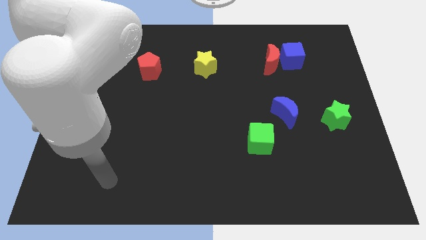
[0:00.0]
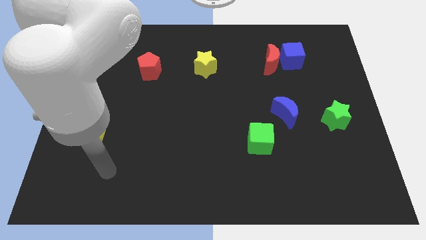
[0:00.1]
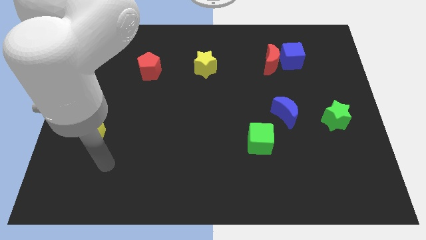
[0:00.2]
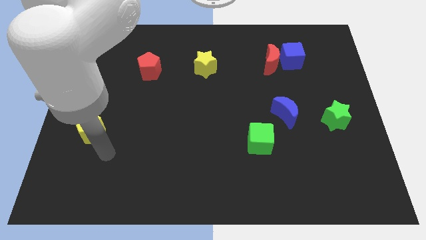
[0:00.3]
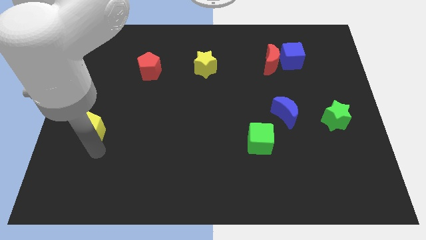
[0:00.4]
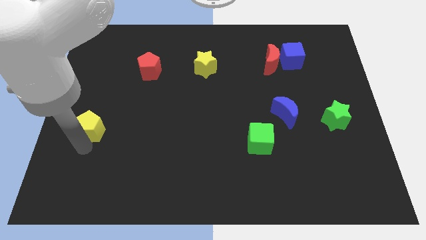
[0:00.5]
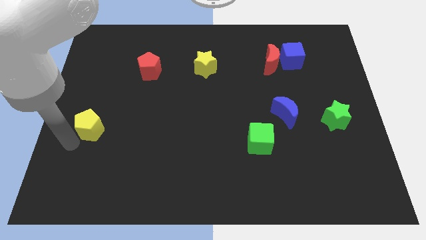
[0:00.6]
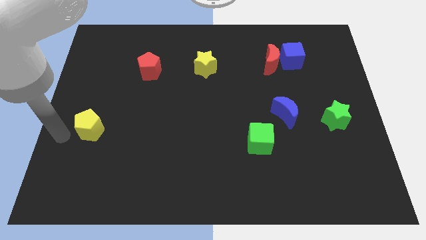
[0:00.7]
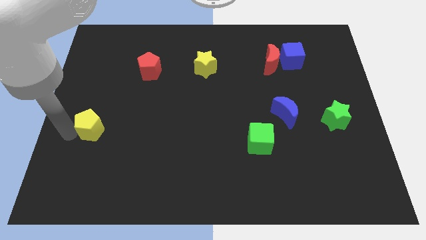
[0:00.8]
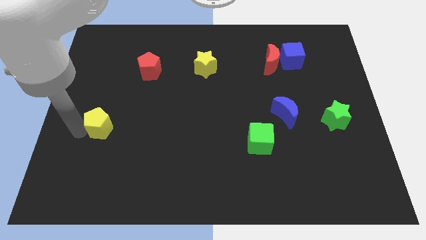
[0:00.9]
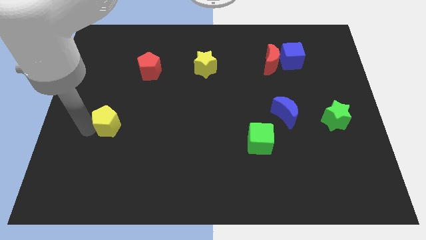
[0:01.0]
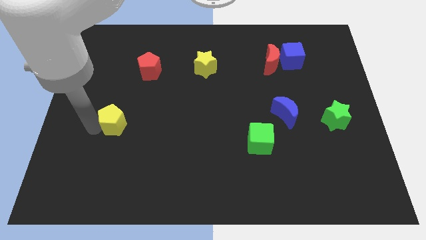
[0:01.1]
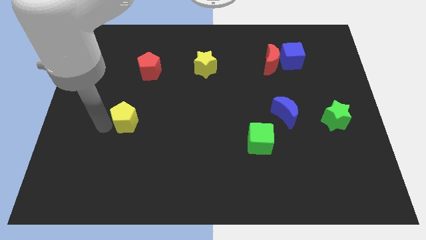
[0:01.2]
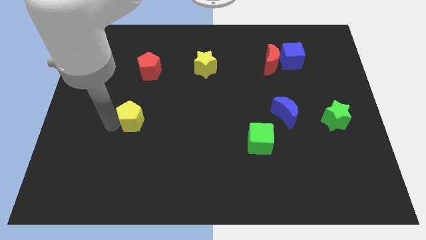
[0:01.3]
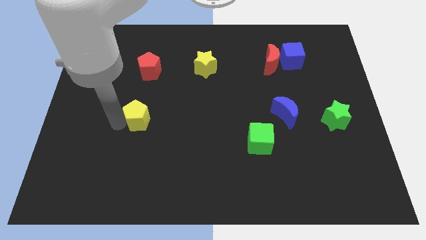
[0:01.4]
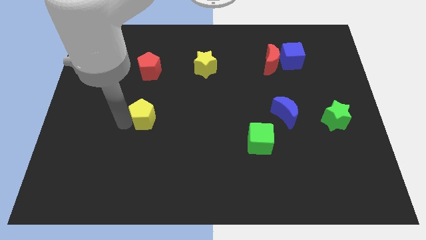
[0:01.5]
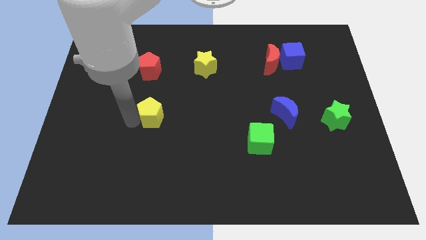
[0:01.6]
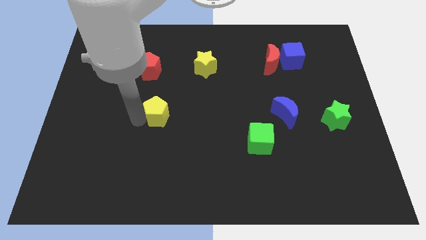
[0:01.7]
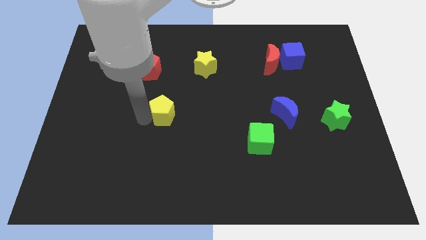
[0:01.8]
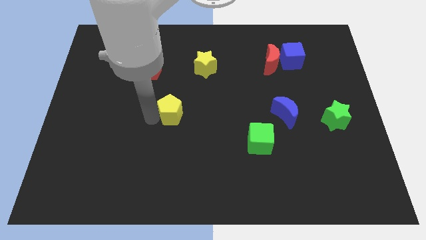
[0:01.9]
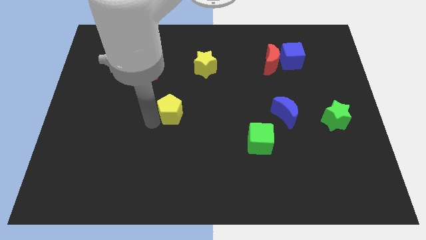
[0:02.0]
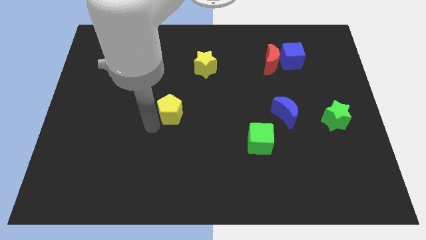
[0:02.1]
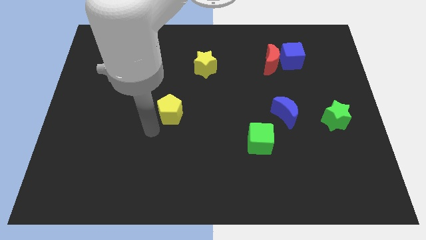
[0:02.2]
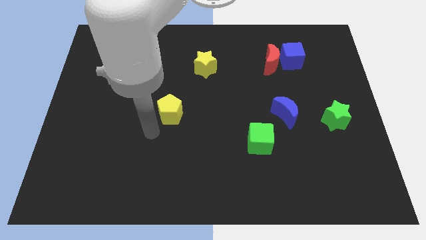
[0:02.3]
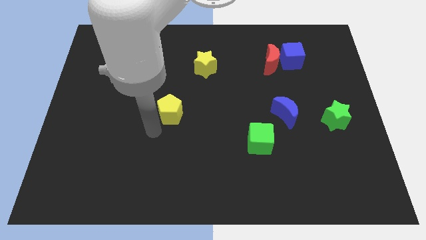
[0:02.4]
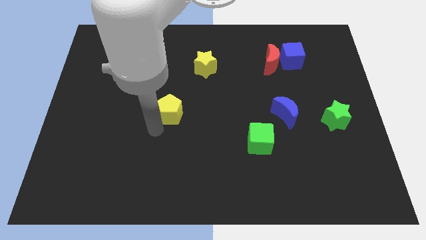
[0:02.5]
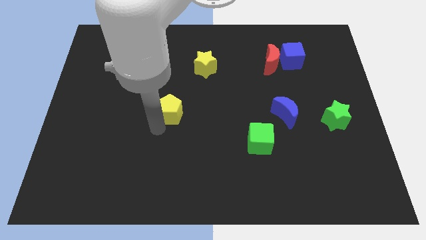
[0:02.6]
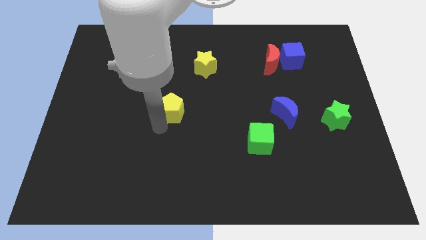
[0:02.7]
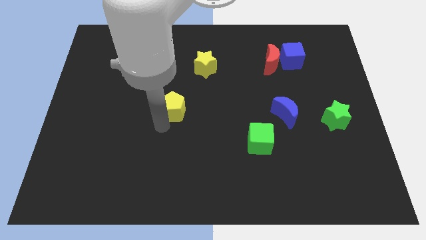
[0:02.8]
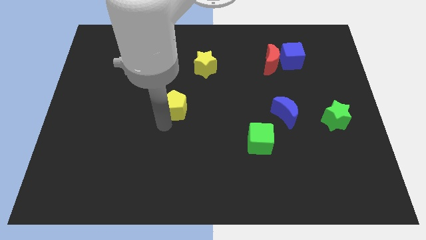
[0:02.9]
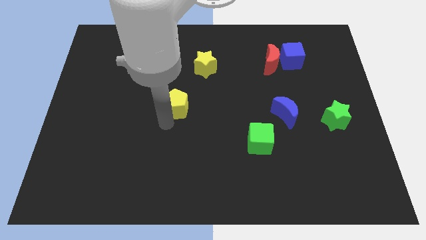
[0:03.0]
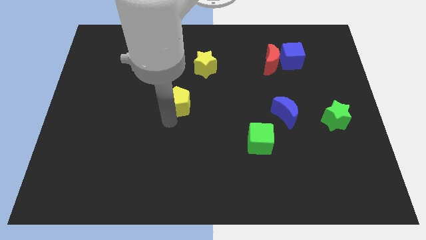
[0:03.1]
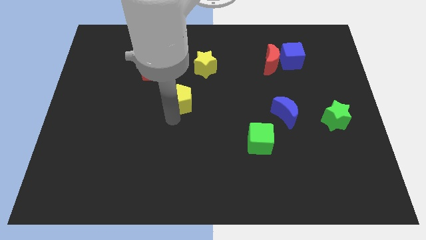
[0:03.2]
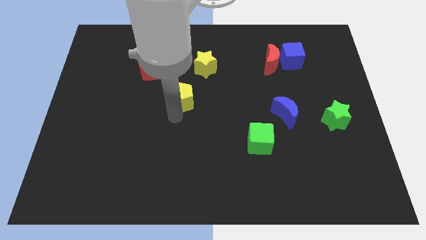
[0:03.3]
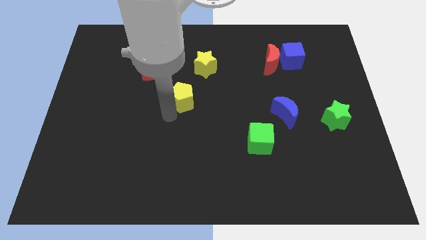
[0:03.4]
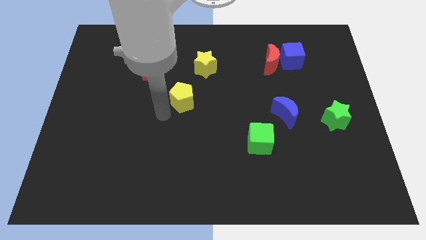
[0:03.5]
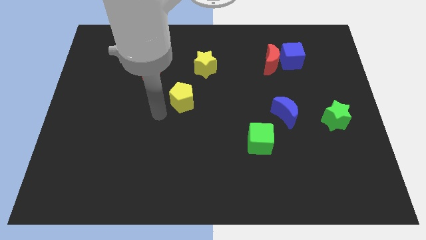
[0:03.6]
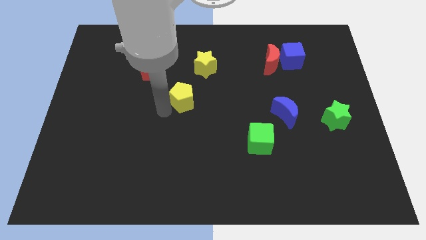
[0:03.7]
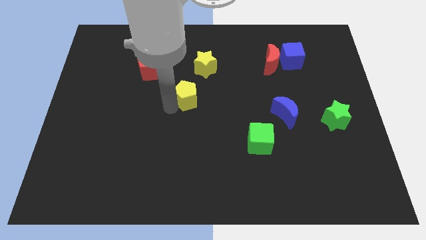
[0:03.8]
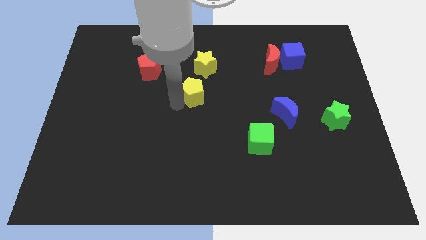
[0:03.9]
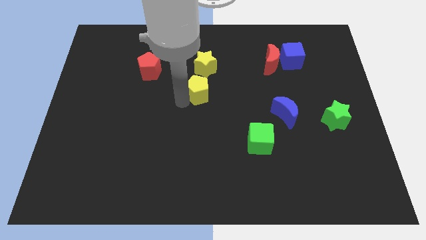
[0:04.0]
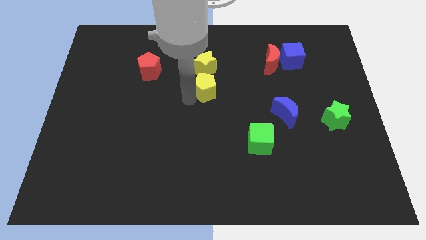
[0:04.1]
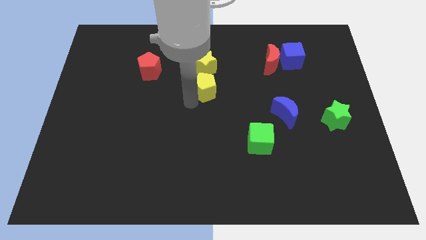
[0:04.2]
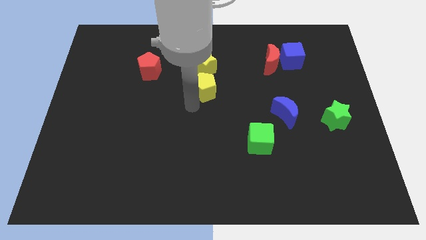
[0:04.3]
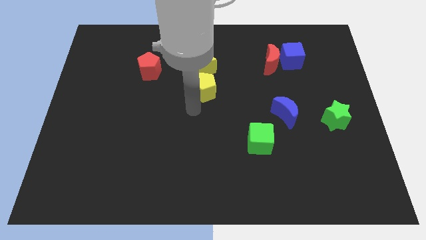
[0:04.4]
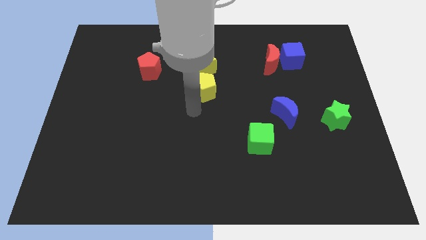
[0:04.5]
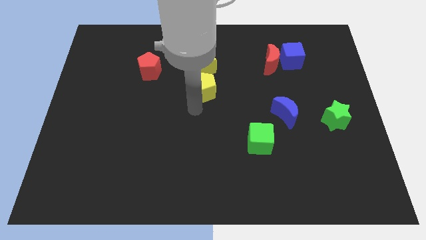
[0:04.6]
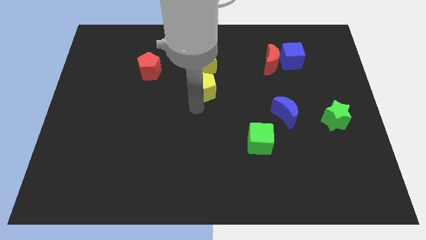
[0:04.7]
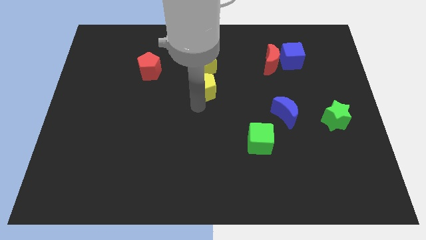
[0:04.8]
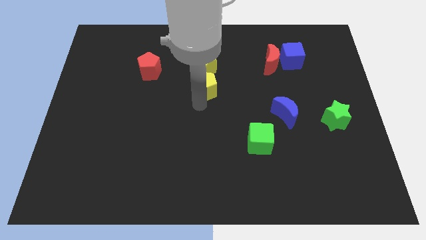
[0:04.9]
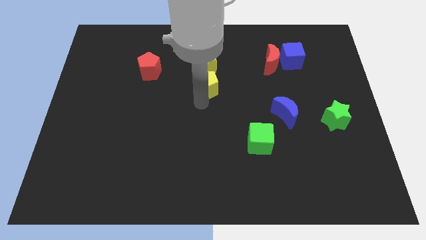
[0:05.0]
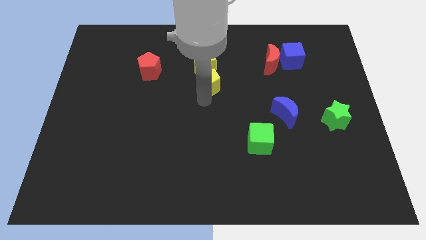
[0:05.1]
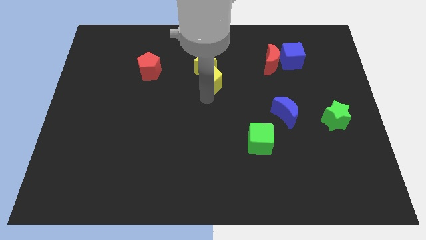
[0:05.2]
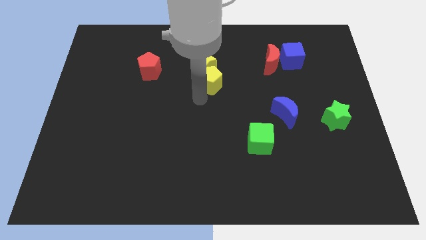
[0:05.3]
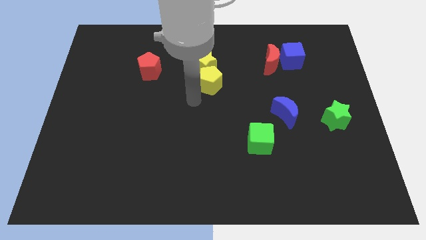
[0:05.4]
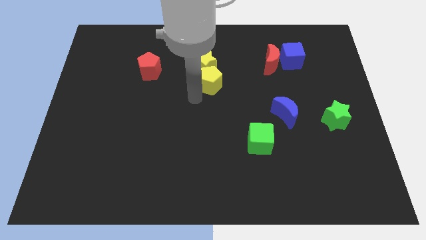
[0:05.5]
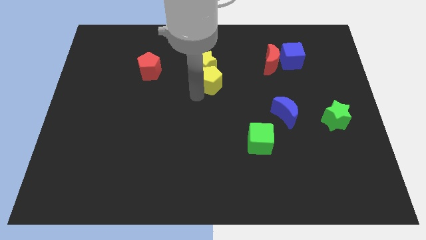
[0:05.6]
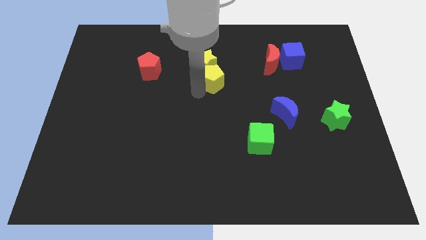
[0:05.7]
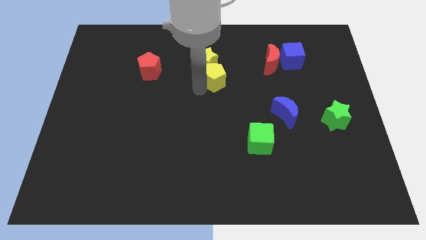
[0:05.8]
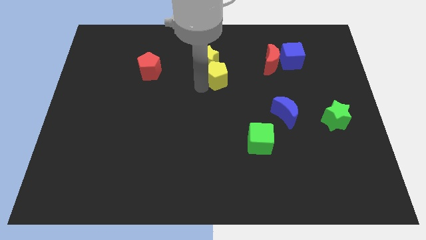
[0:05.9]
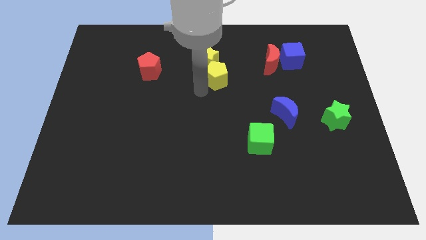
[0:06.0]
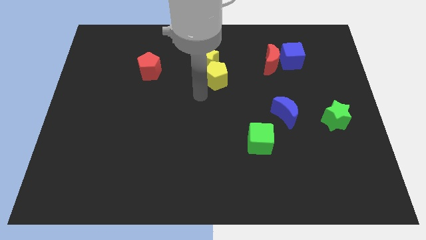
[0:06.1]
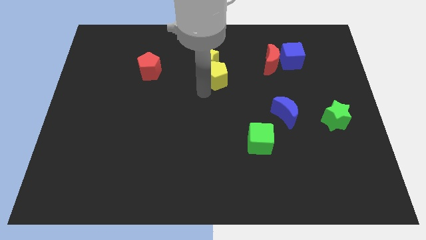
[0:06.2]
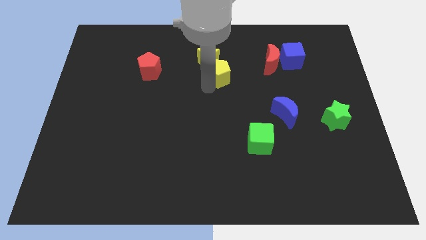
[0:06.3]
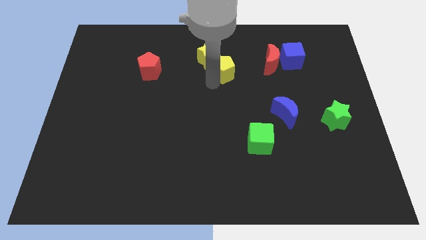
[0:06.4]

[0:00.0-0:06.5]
move the yellow pentagon to the left of the red moon
